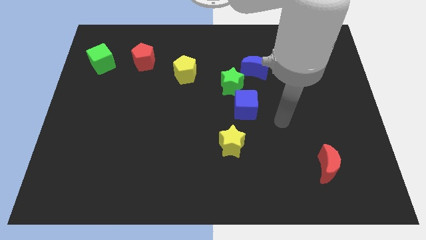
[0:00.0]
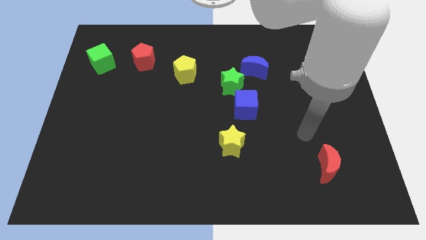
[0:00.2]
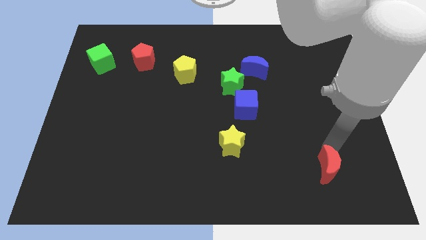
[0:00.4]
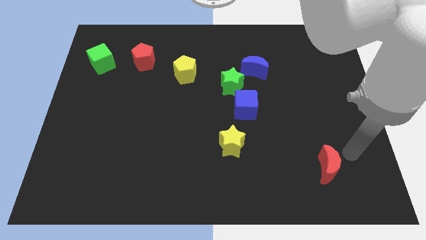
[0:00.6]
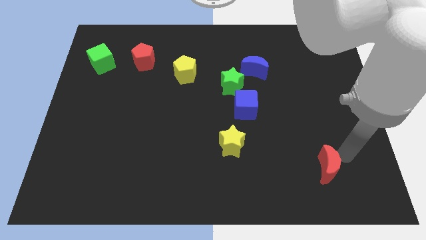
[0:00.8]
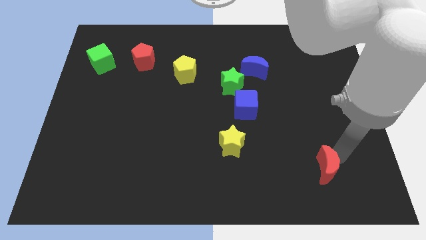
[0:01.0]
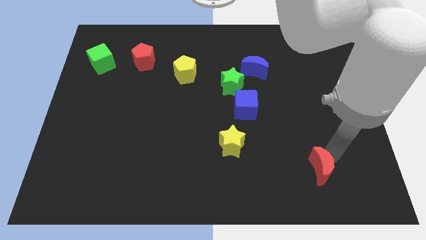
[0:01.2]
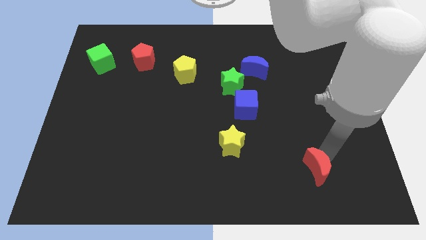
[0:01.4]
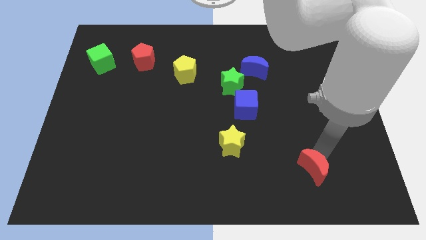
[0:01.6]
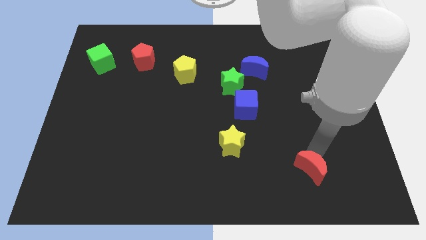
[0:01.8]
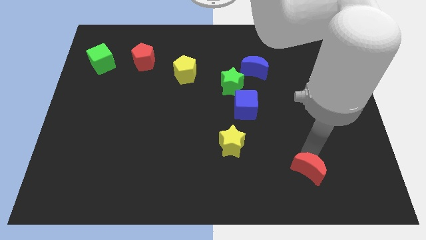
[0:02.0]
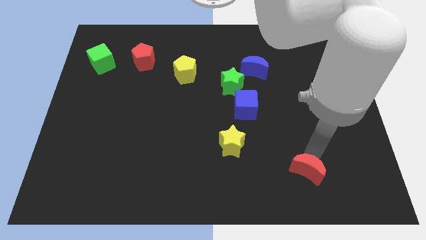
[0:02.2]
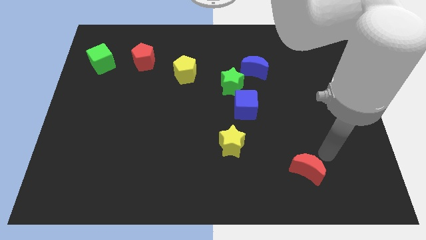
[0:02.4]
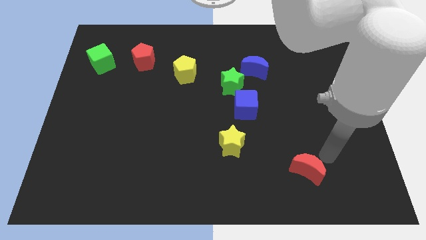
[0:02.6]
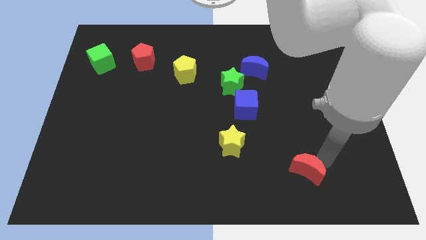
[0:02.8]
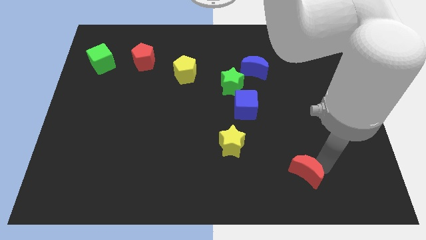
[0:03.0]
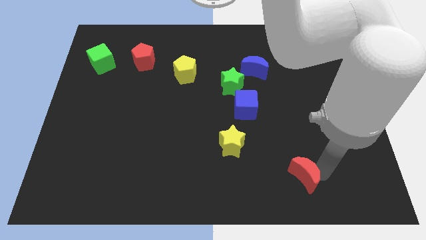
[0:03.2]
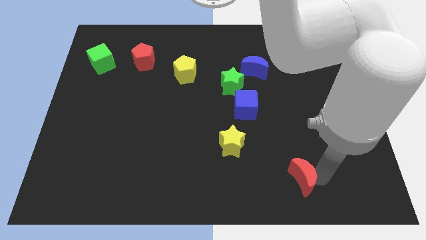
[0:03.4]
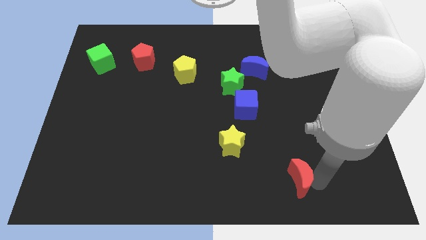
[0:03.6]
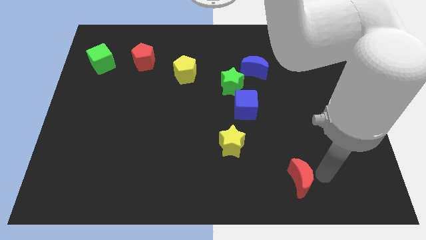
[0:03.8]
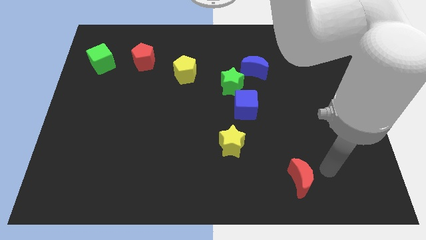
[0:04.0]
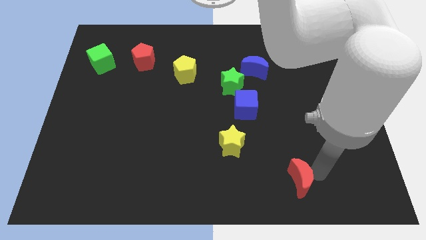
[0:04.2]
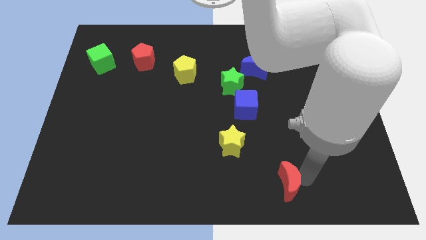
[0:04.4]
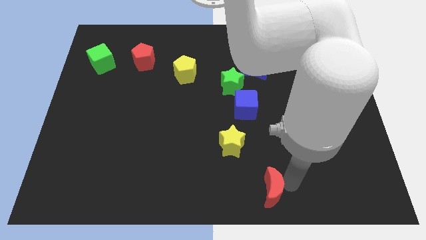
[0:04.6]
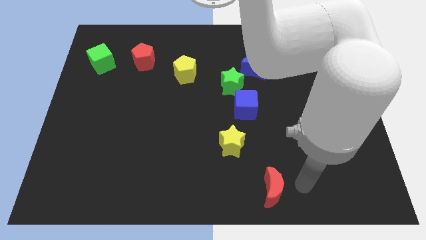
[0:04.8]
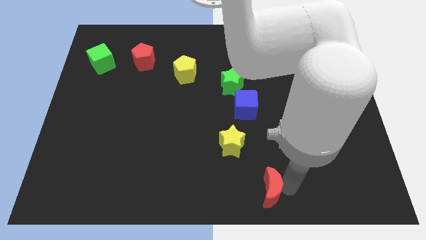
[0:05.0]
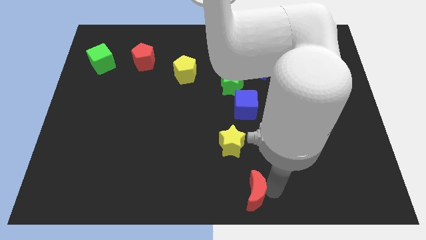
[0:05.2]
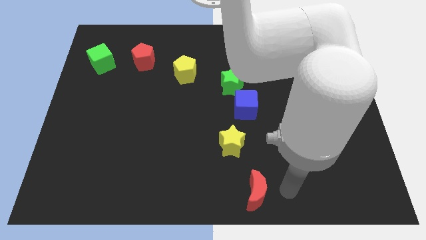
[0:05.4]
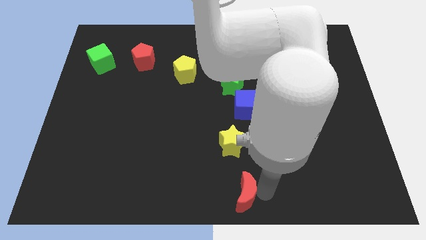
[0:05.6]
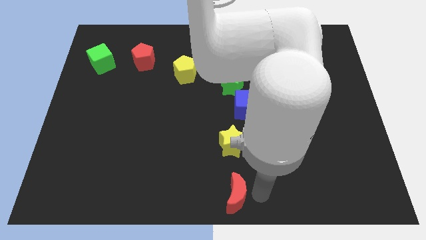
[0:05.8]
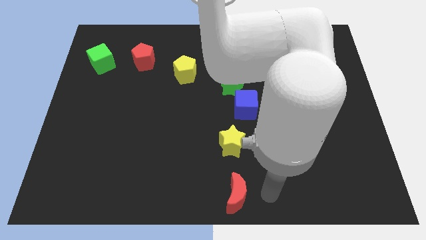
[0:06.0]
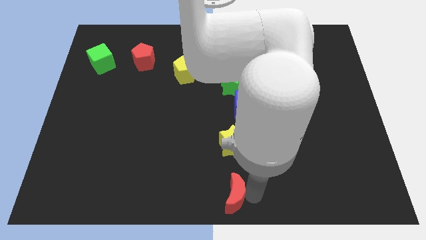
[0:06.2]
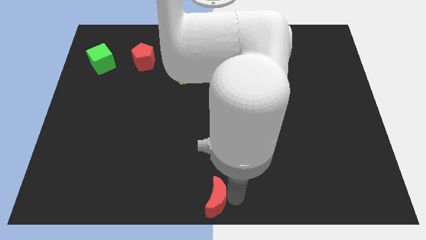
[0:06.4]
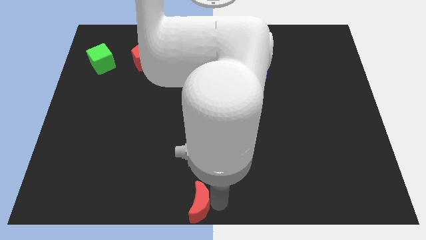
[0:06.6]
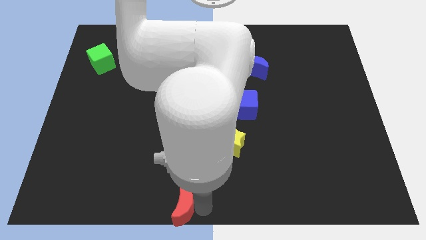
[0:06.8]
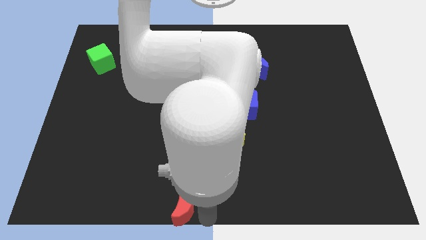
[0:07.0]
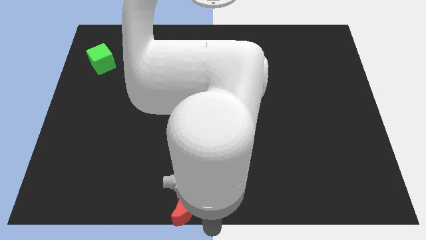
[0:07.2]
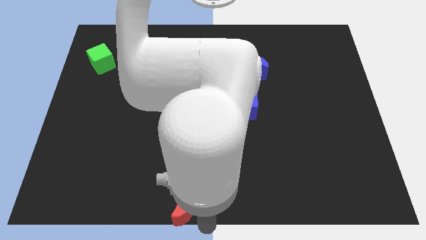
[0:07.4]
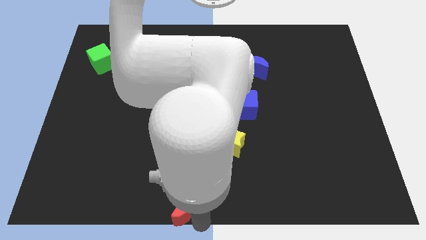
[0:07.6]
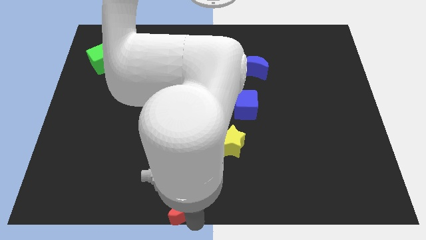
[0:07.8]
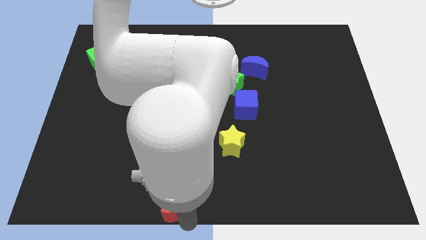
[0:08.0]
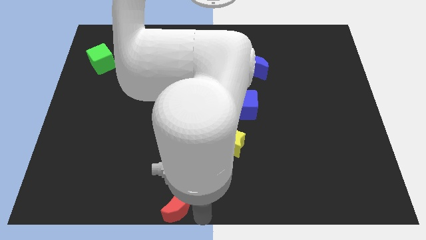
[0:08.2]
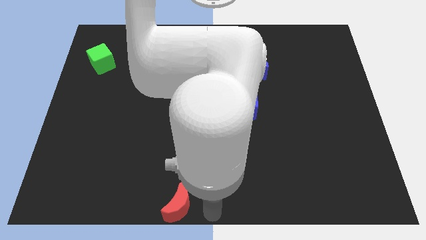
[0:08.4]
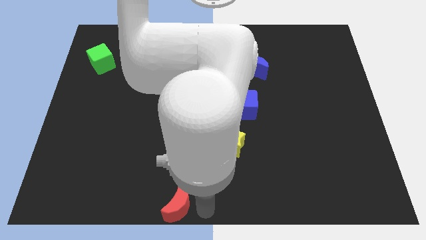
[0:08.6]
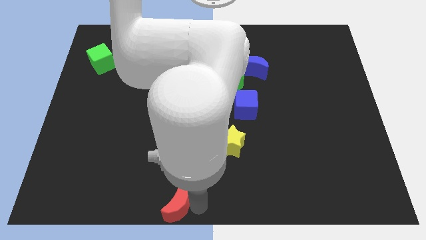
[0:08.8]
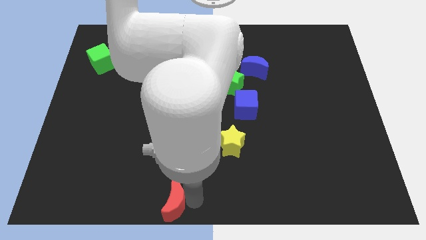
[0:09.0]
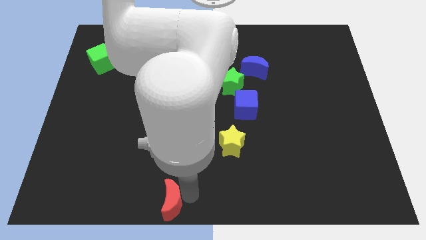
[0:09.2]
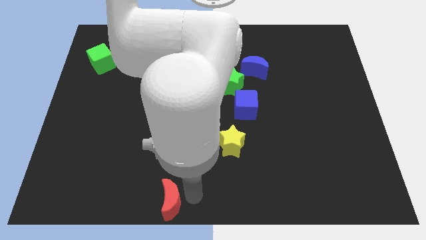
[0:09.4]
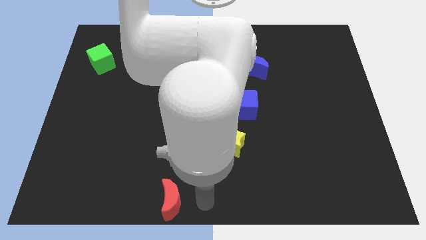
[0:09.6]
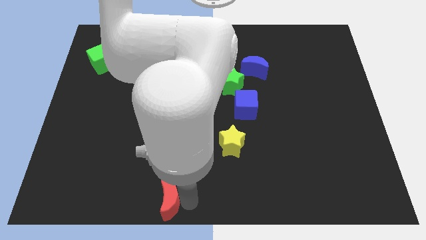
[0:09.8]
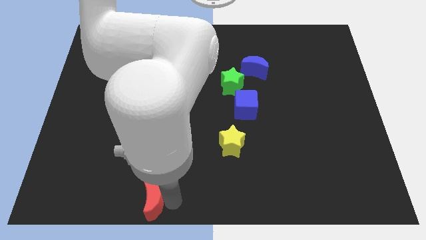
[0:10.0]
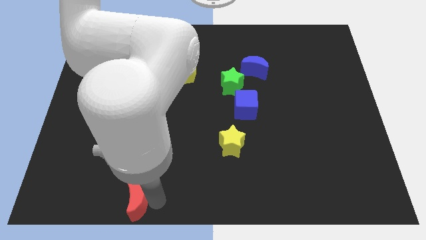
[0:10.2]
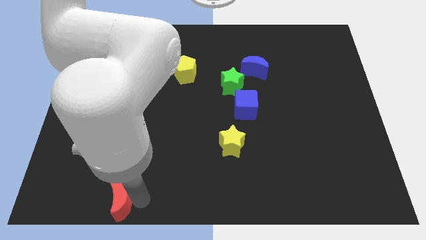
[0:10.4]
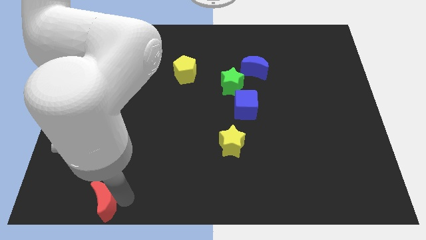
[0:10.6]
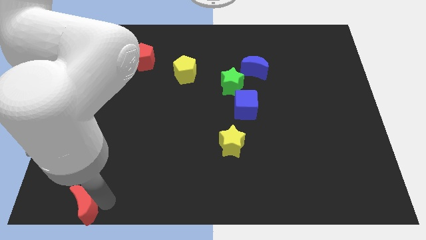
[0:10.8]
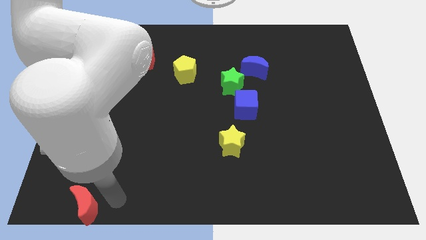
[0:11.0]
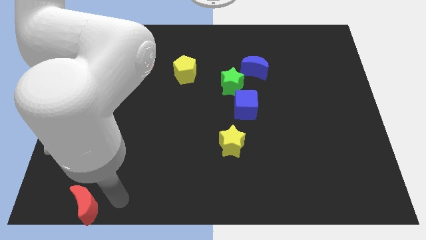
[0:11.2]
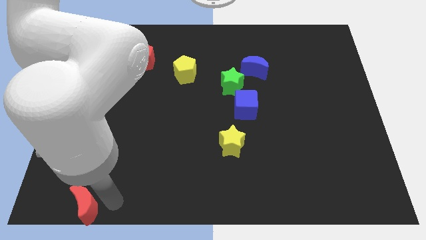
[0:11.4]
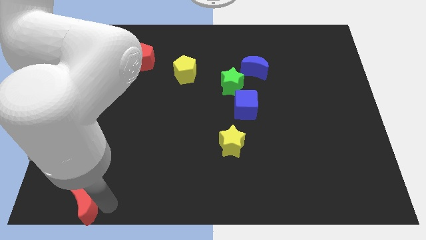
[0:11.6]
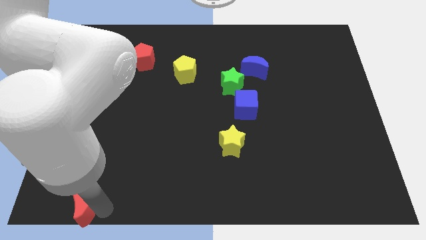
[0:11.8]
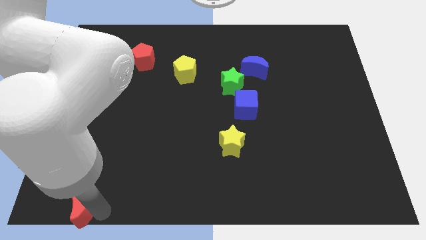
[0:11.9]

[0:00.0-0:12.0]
put the red moon to the bottom left corner
